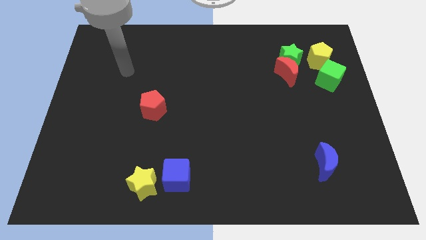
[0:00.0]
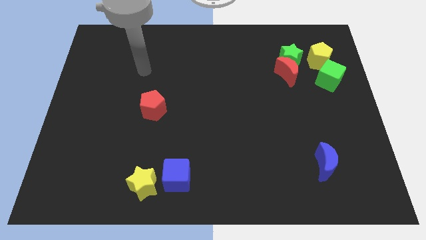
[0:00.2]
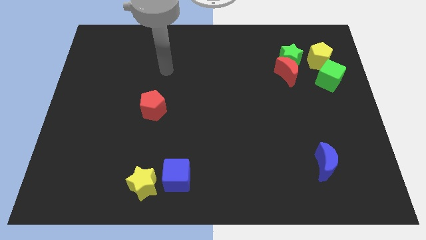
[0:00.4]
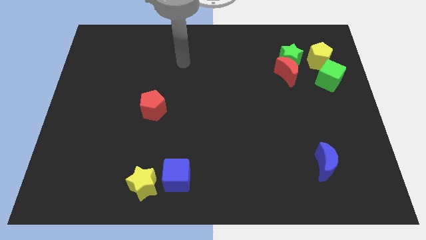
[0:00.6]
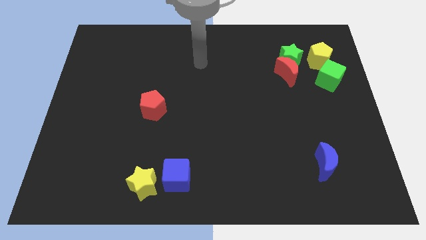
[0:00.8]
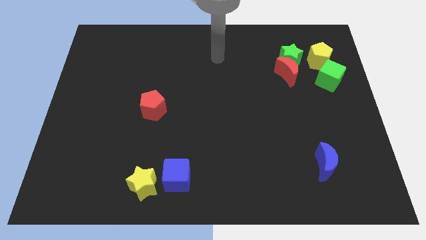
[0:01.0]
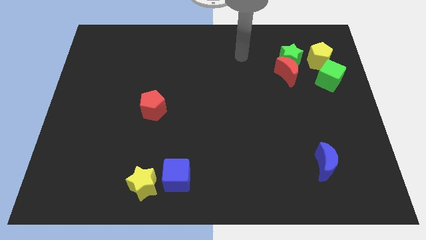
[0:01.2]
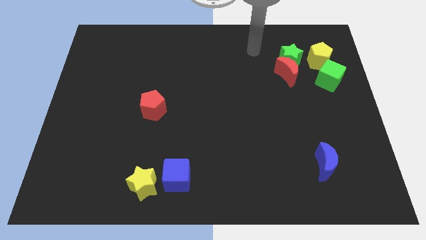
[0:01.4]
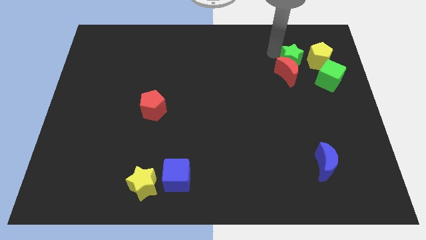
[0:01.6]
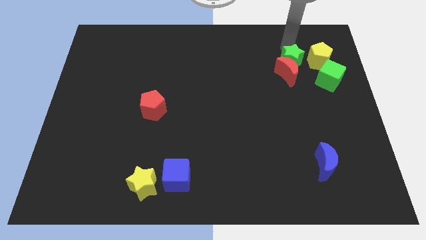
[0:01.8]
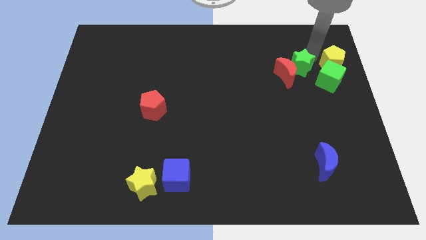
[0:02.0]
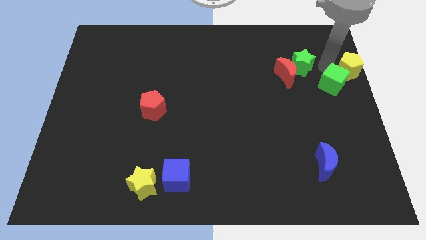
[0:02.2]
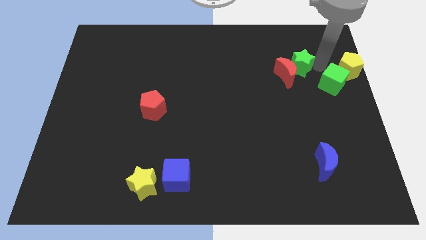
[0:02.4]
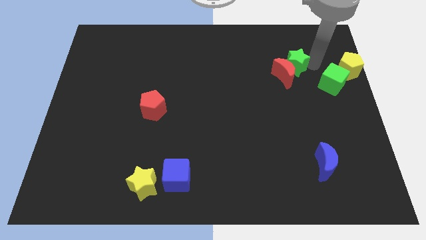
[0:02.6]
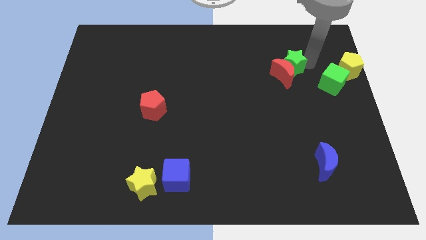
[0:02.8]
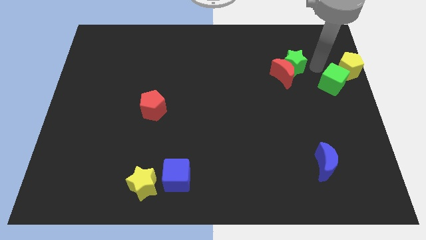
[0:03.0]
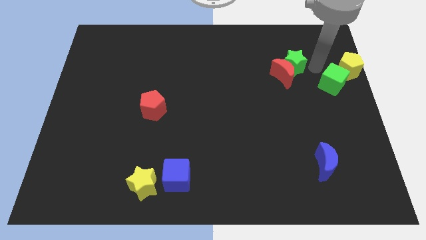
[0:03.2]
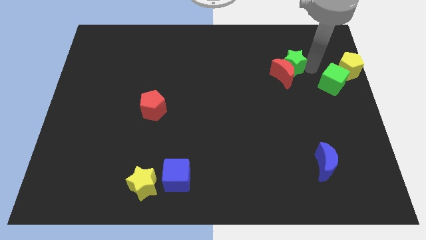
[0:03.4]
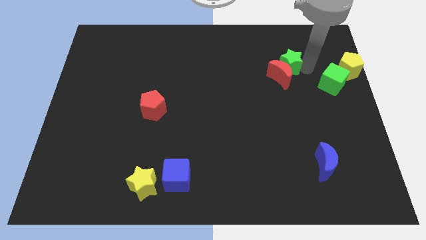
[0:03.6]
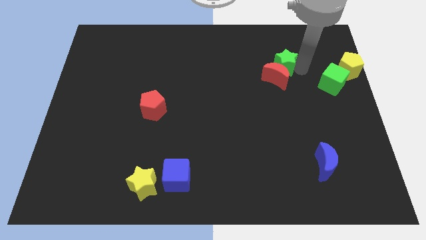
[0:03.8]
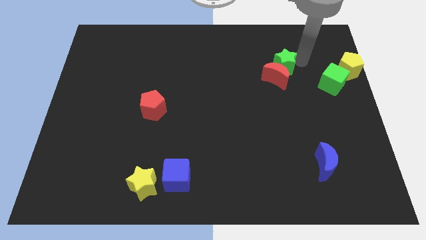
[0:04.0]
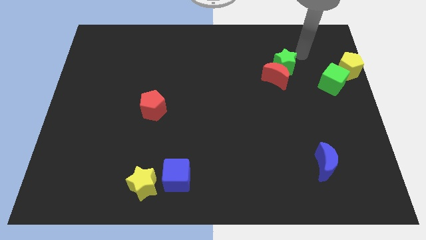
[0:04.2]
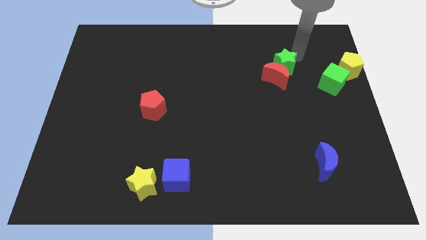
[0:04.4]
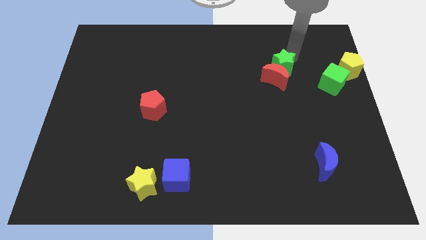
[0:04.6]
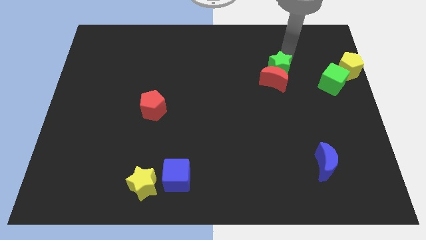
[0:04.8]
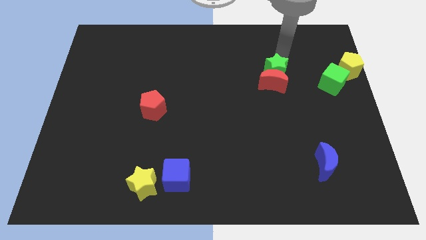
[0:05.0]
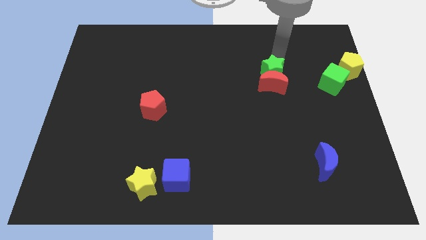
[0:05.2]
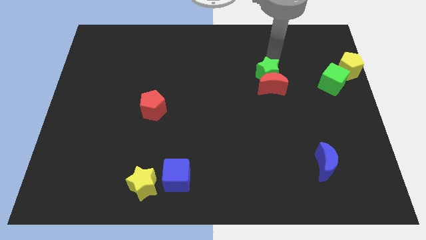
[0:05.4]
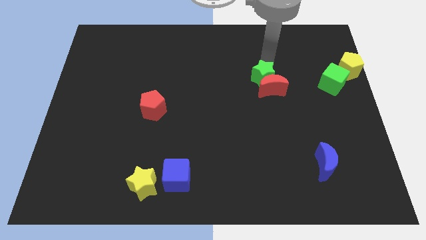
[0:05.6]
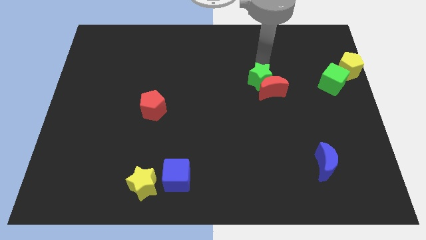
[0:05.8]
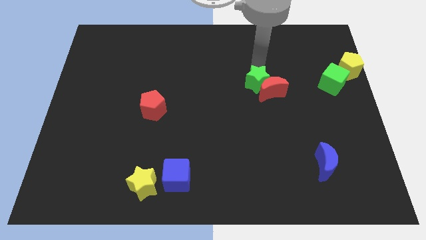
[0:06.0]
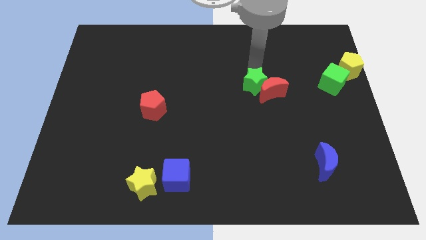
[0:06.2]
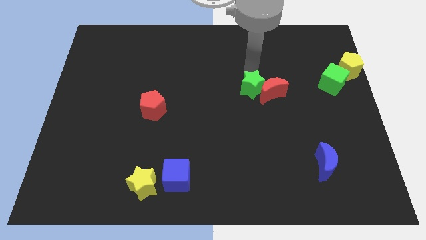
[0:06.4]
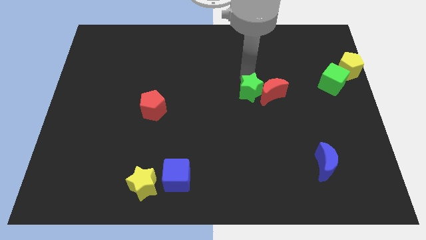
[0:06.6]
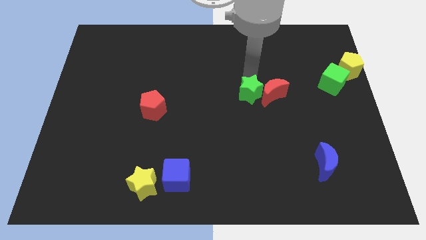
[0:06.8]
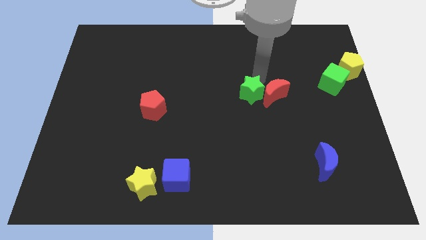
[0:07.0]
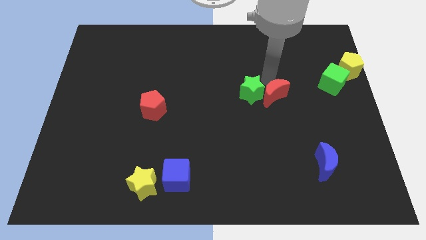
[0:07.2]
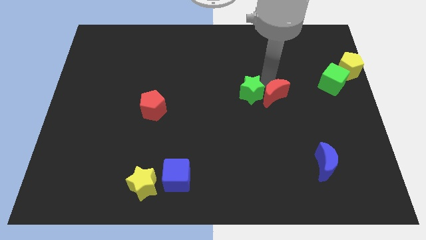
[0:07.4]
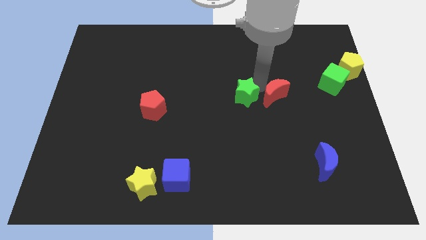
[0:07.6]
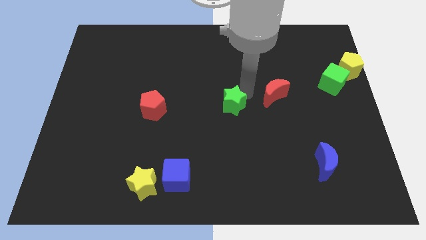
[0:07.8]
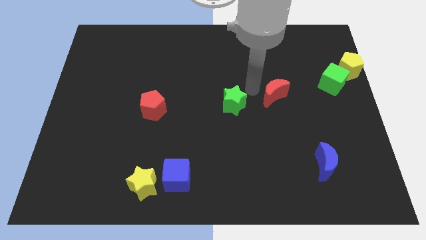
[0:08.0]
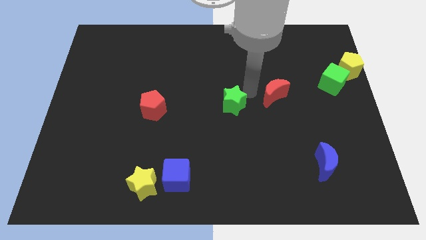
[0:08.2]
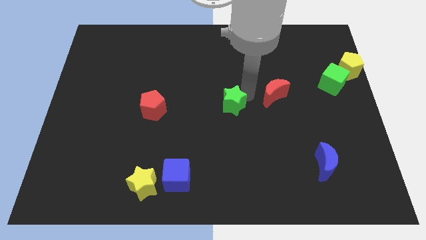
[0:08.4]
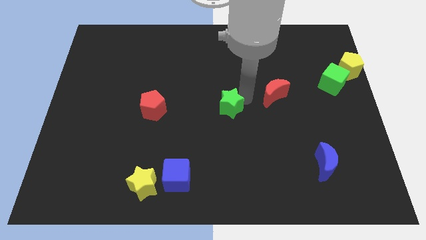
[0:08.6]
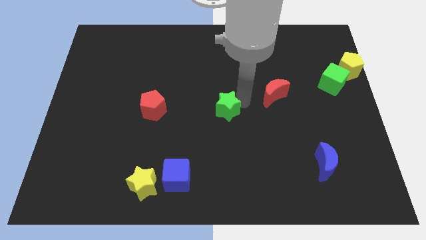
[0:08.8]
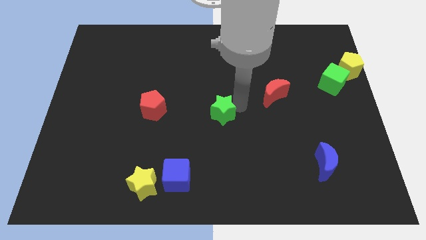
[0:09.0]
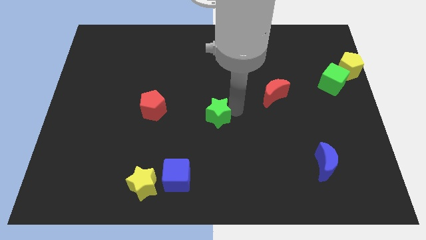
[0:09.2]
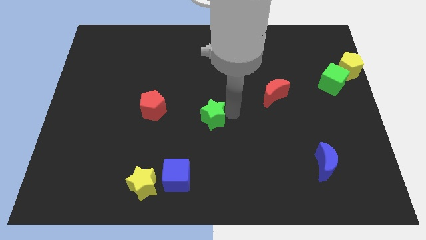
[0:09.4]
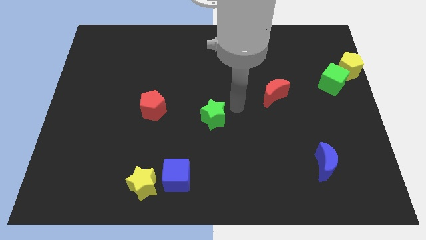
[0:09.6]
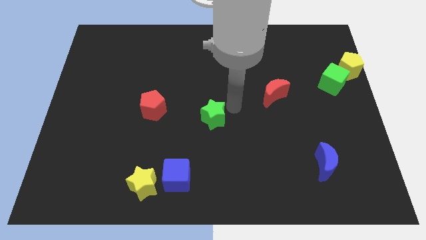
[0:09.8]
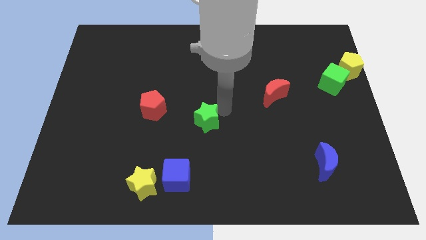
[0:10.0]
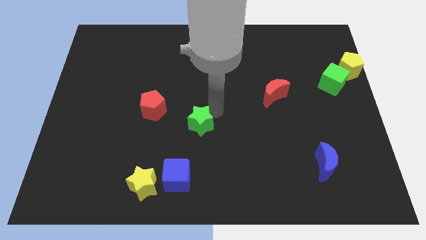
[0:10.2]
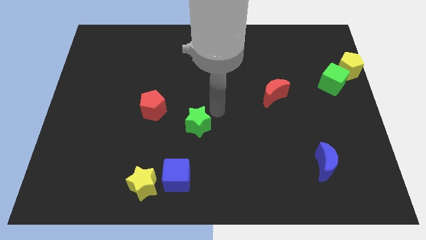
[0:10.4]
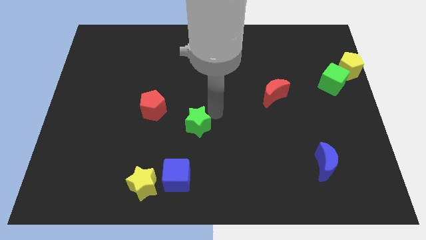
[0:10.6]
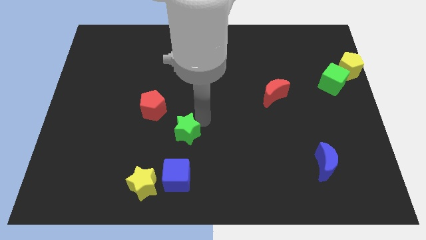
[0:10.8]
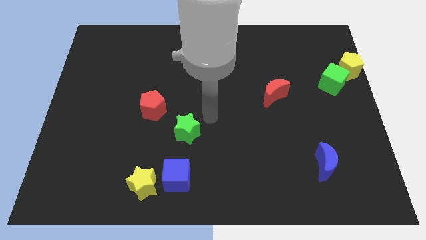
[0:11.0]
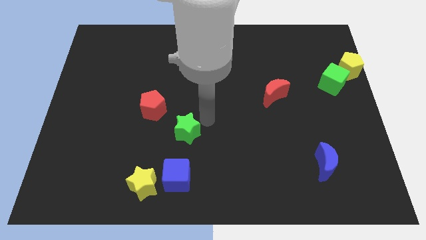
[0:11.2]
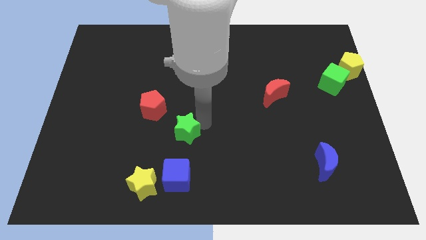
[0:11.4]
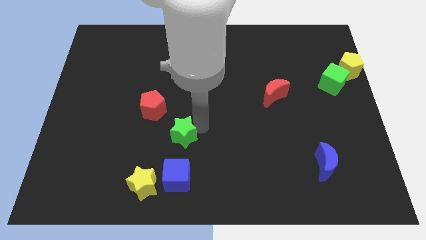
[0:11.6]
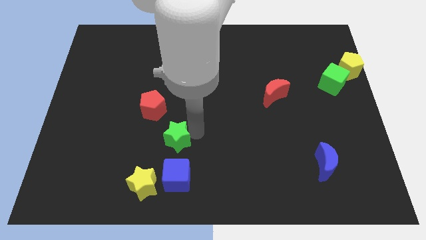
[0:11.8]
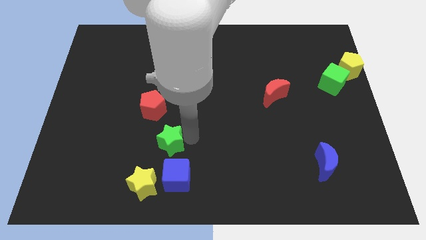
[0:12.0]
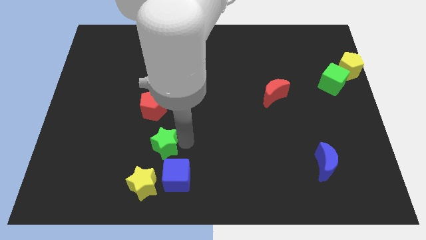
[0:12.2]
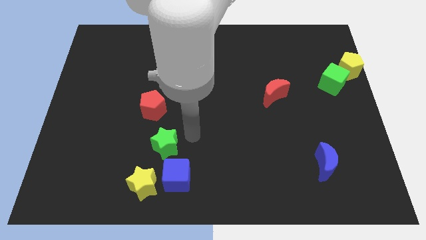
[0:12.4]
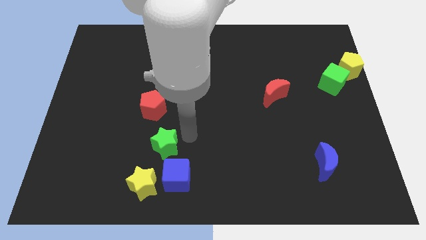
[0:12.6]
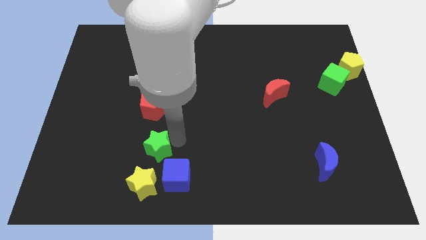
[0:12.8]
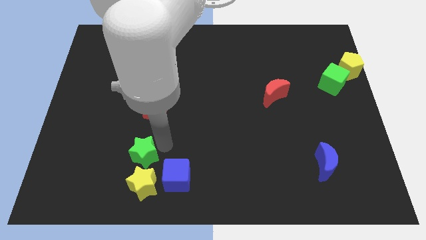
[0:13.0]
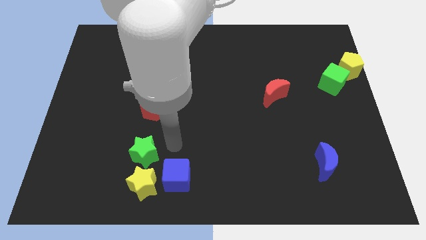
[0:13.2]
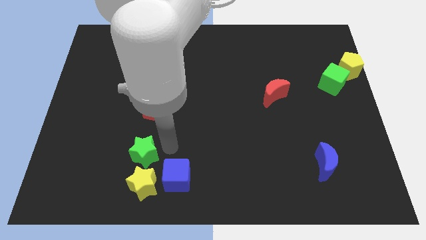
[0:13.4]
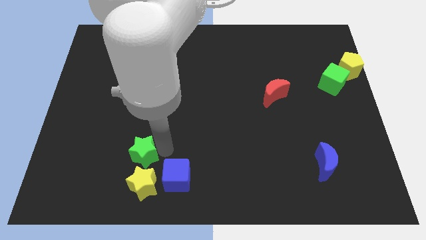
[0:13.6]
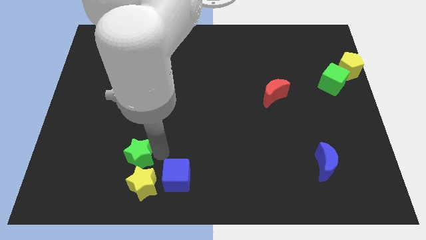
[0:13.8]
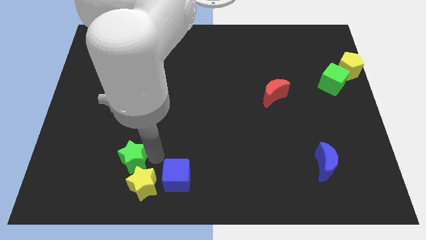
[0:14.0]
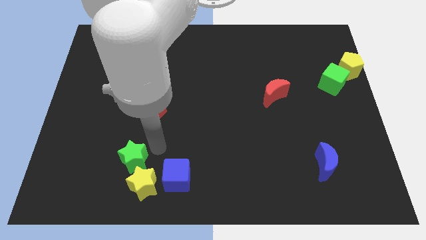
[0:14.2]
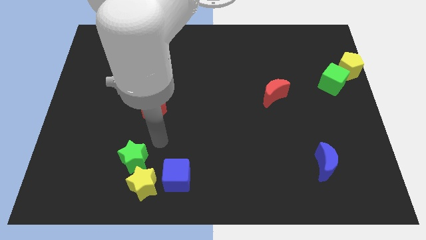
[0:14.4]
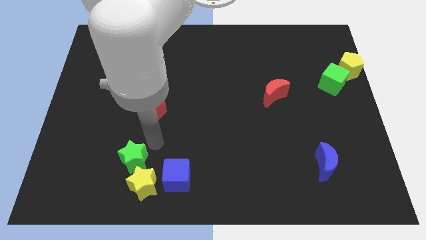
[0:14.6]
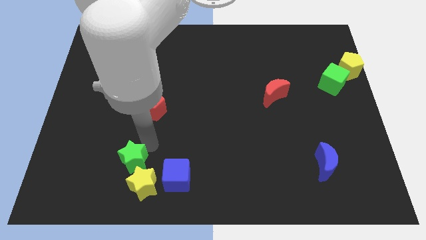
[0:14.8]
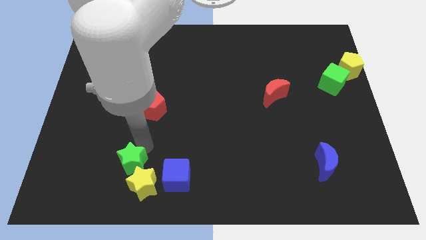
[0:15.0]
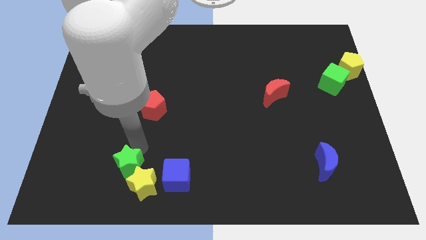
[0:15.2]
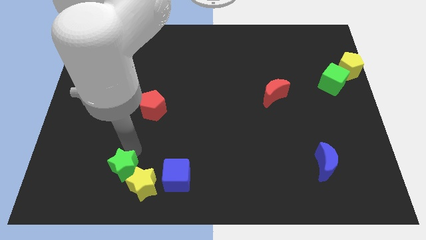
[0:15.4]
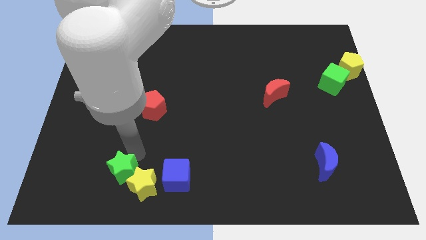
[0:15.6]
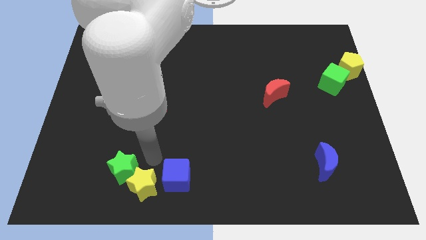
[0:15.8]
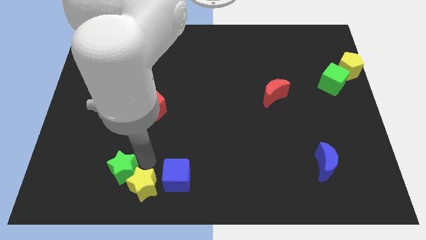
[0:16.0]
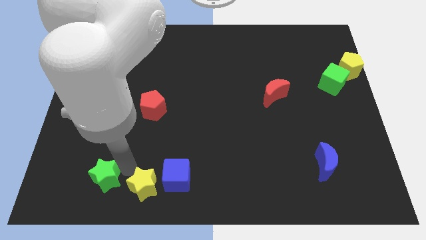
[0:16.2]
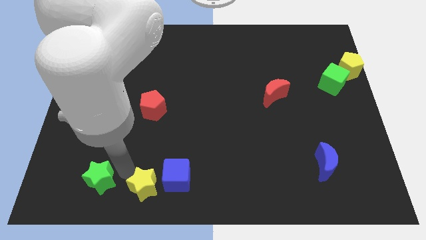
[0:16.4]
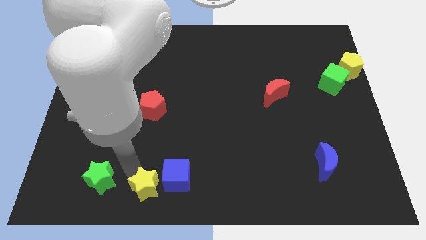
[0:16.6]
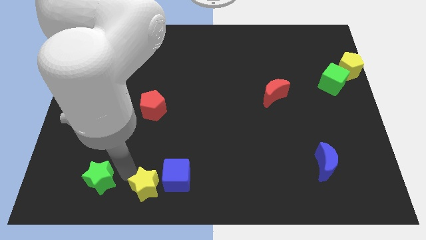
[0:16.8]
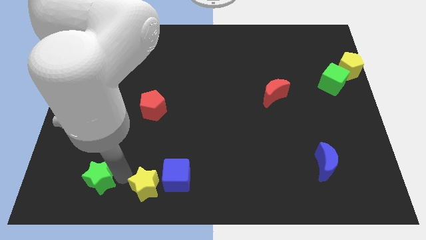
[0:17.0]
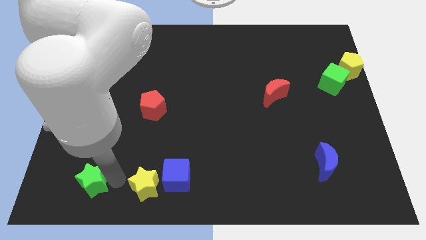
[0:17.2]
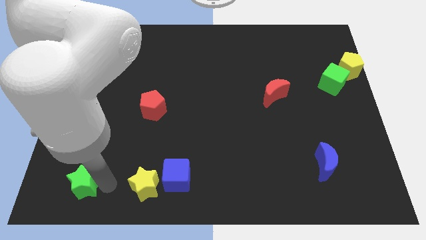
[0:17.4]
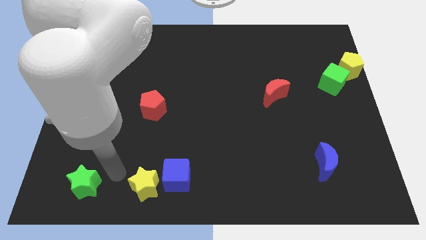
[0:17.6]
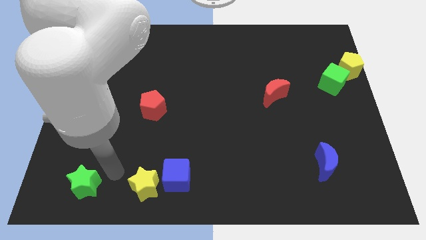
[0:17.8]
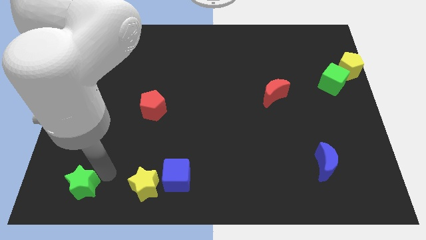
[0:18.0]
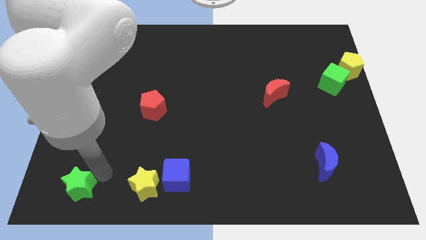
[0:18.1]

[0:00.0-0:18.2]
move the green star to the bottom left
